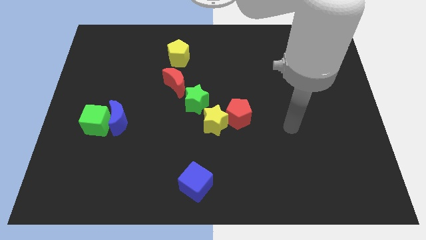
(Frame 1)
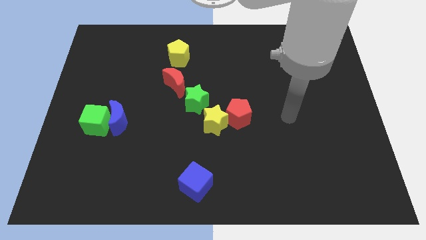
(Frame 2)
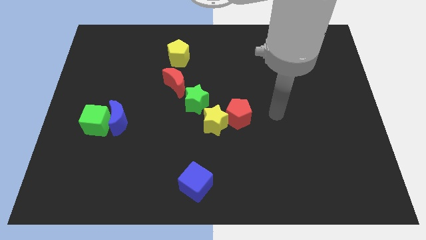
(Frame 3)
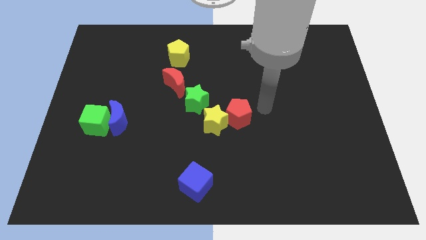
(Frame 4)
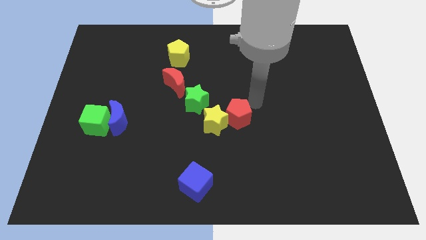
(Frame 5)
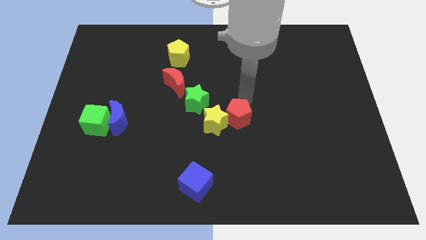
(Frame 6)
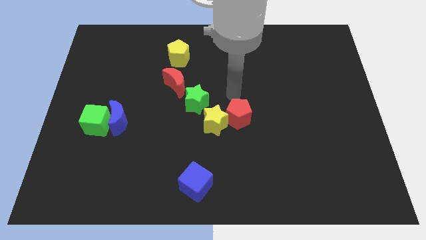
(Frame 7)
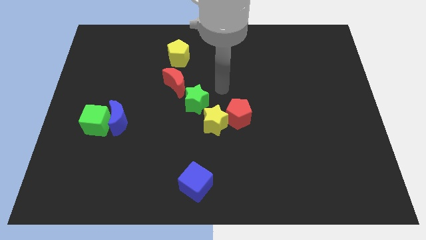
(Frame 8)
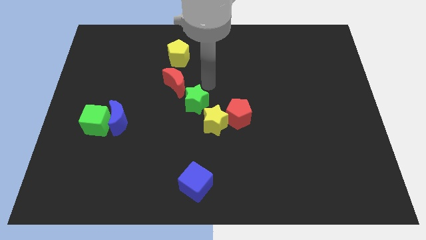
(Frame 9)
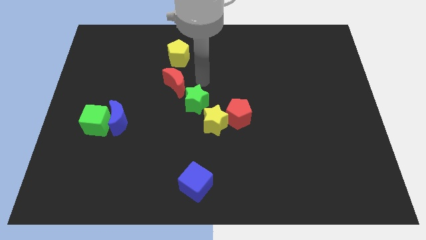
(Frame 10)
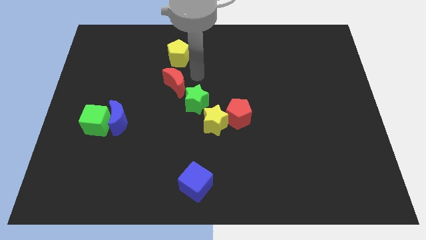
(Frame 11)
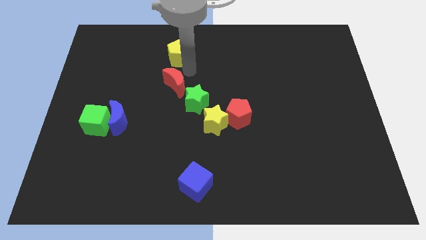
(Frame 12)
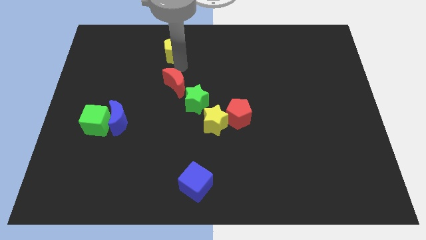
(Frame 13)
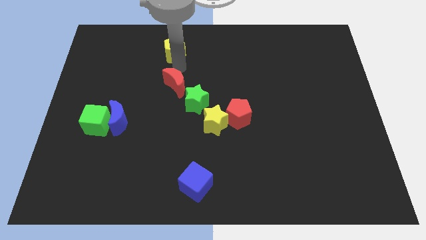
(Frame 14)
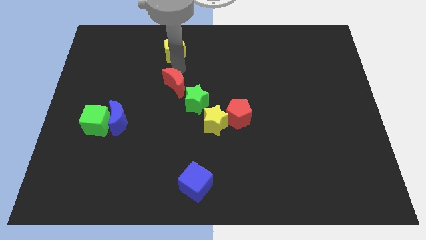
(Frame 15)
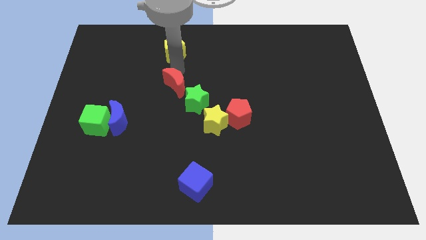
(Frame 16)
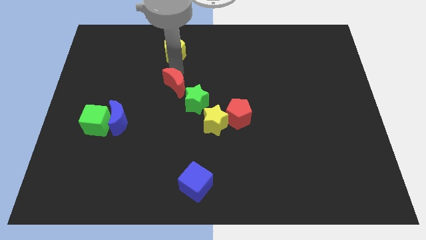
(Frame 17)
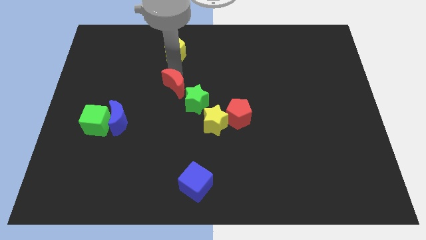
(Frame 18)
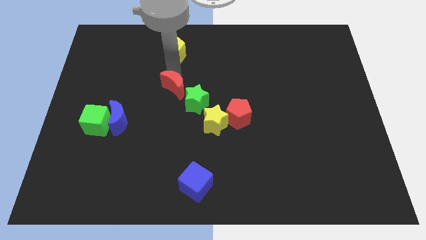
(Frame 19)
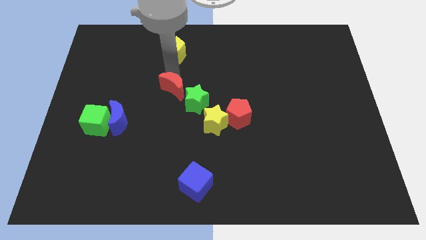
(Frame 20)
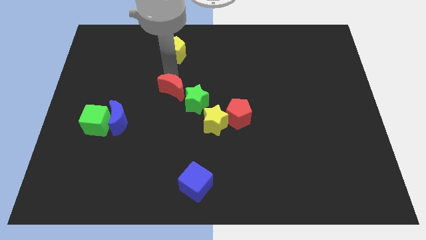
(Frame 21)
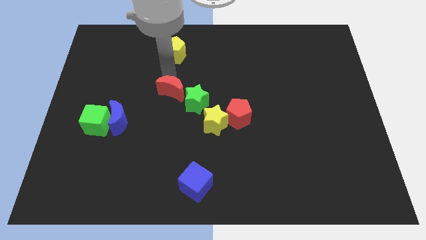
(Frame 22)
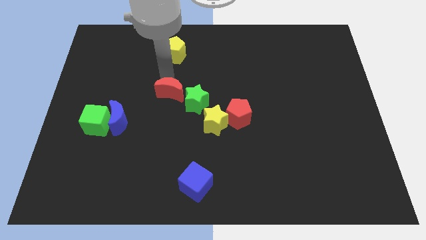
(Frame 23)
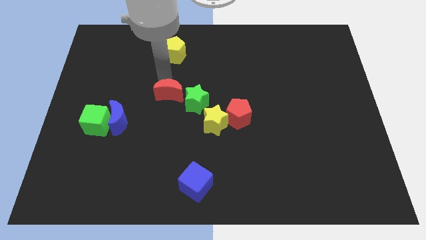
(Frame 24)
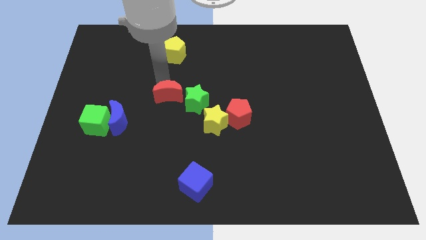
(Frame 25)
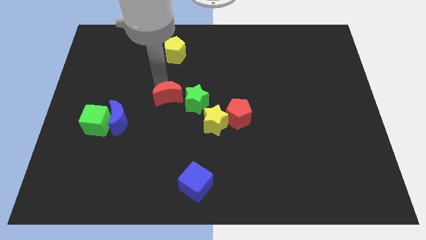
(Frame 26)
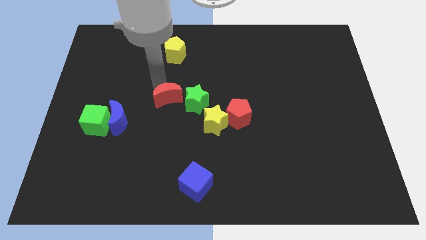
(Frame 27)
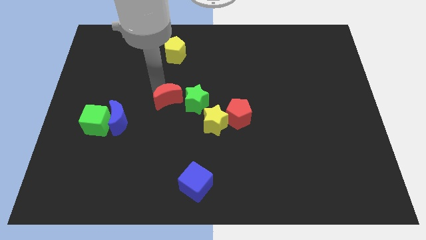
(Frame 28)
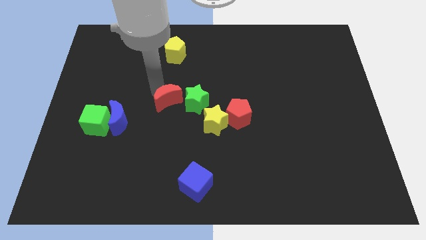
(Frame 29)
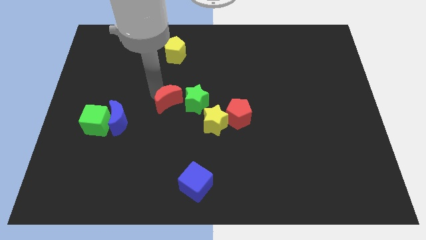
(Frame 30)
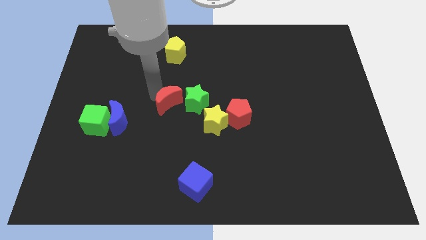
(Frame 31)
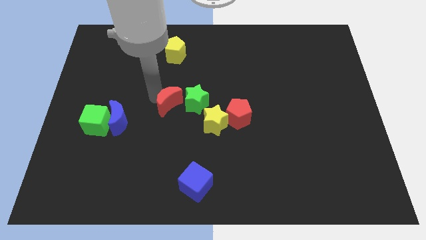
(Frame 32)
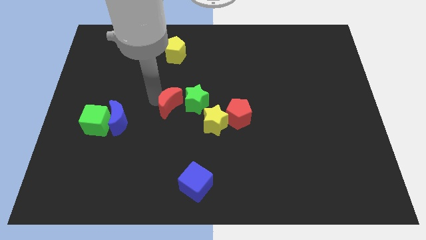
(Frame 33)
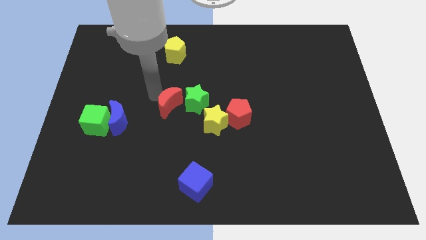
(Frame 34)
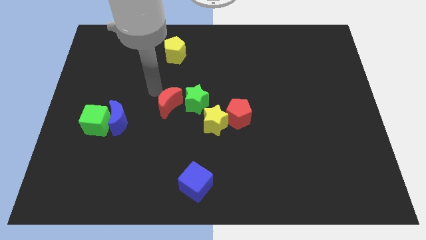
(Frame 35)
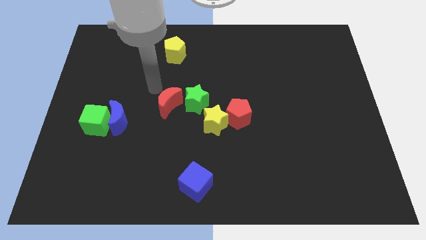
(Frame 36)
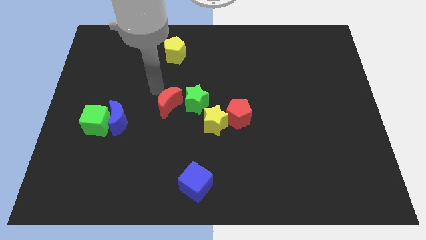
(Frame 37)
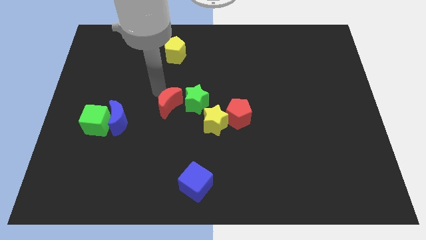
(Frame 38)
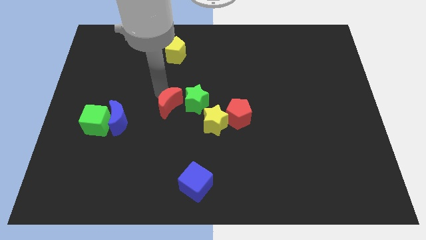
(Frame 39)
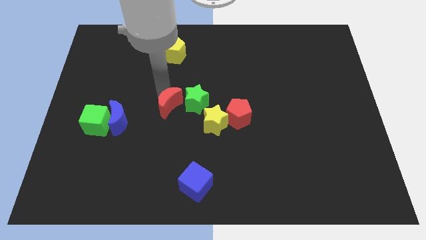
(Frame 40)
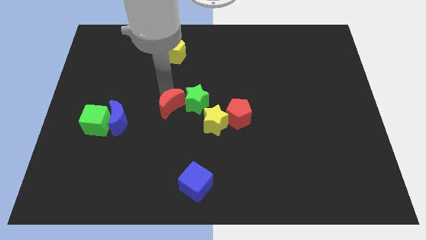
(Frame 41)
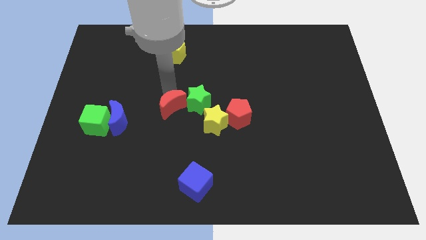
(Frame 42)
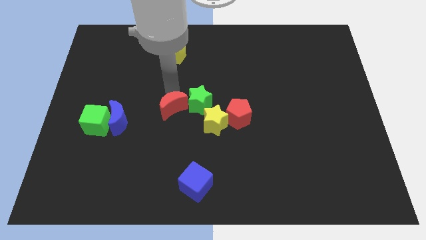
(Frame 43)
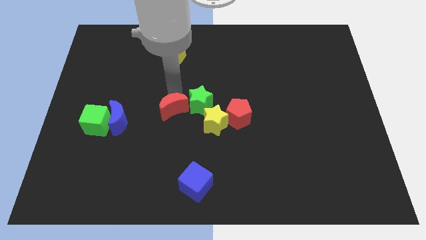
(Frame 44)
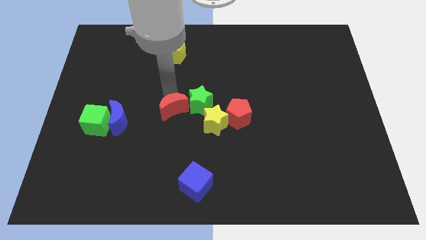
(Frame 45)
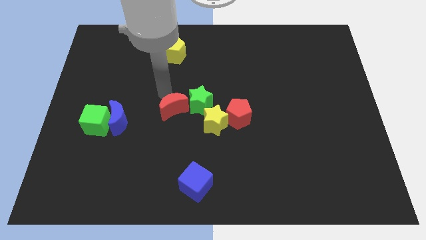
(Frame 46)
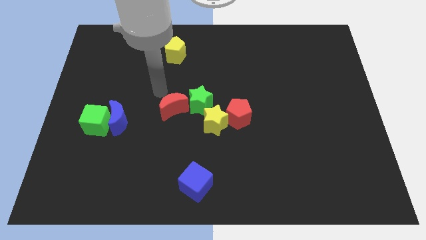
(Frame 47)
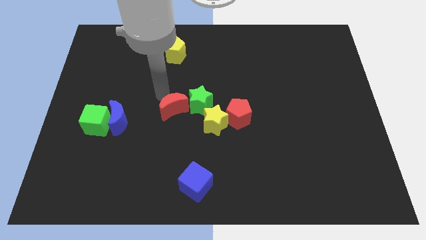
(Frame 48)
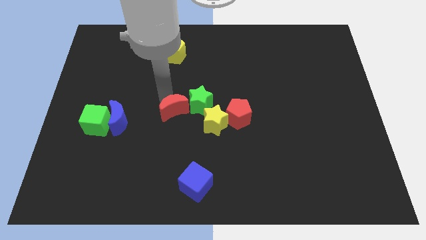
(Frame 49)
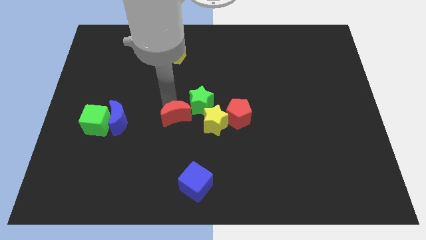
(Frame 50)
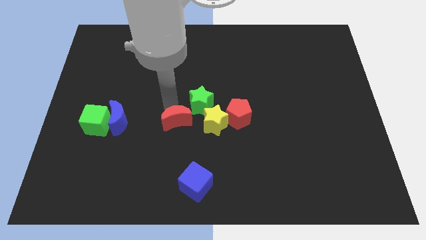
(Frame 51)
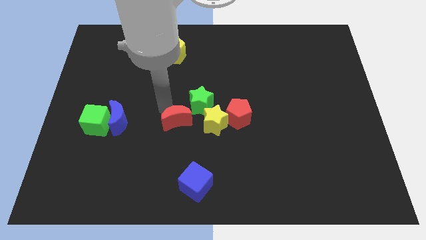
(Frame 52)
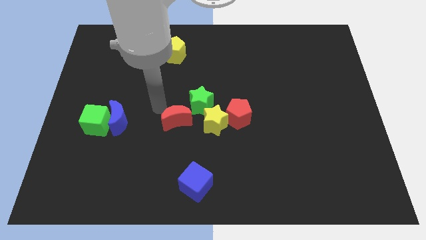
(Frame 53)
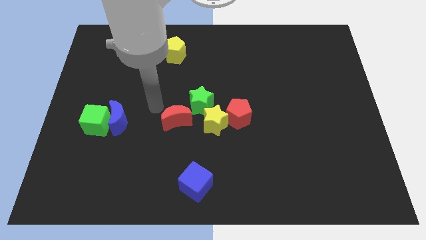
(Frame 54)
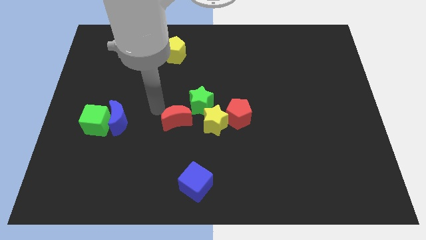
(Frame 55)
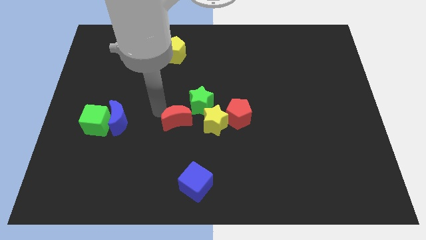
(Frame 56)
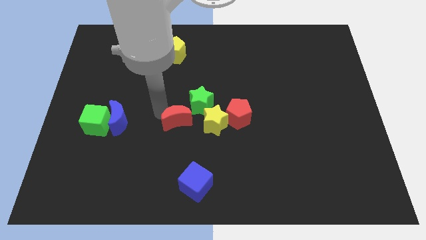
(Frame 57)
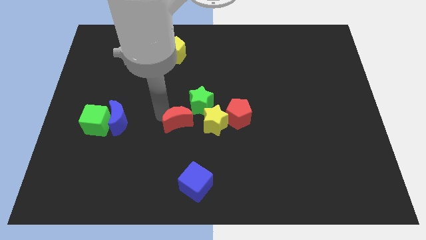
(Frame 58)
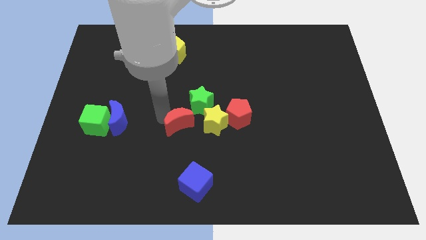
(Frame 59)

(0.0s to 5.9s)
slightly move the red moon down and to the right diagonally

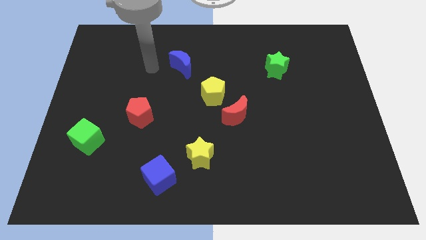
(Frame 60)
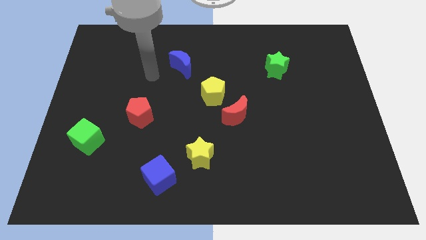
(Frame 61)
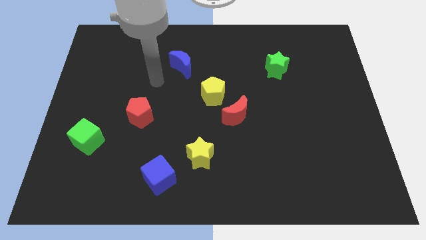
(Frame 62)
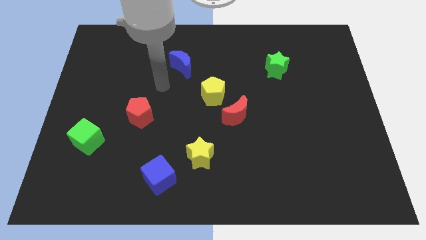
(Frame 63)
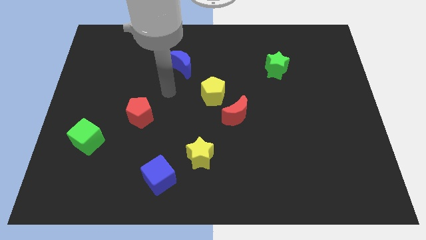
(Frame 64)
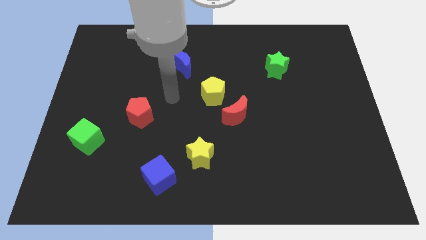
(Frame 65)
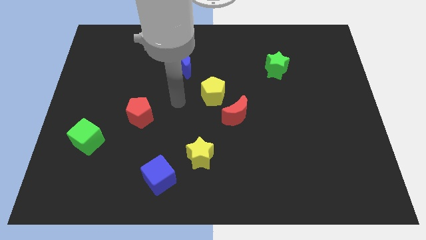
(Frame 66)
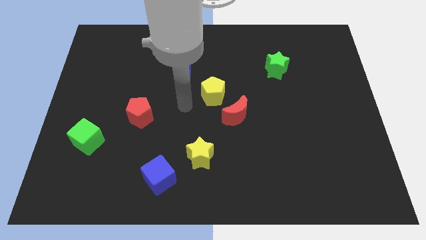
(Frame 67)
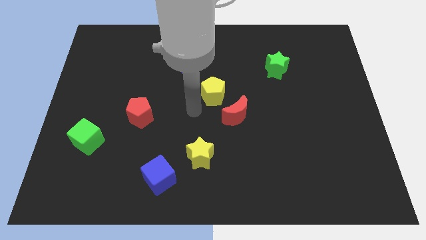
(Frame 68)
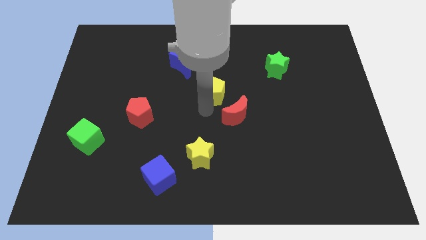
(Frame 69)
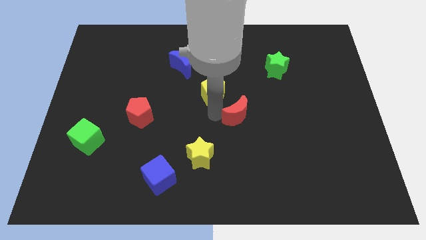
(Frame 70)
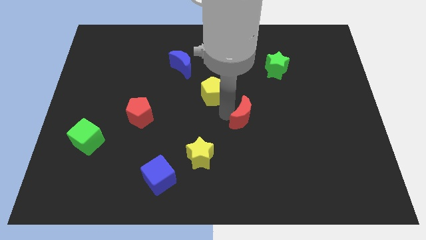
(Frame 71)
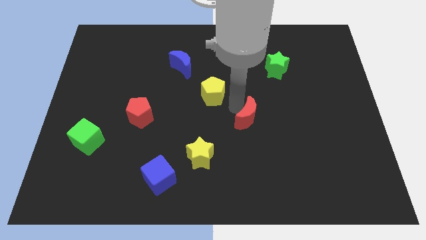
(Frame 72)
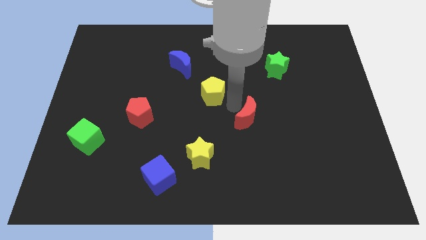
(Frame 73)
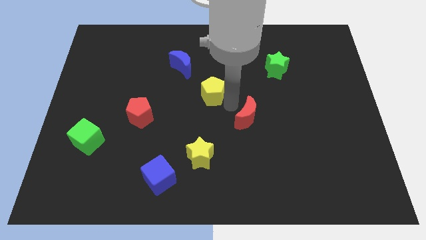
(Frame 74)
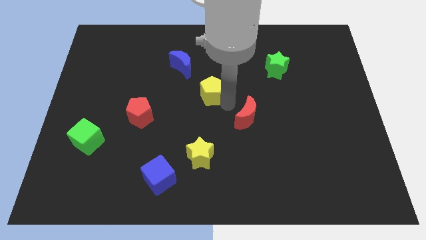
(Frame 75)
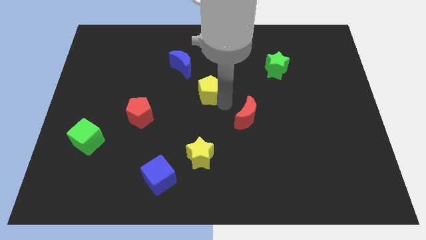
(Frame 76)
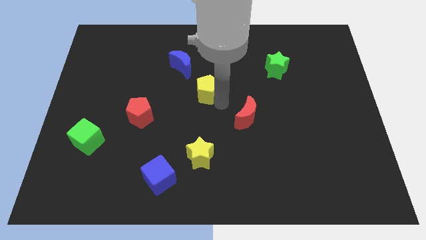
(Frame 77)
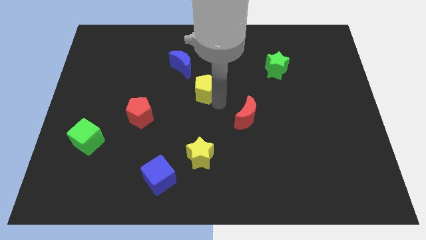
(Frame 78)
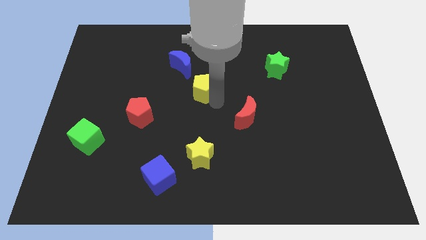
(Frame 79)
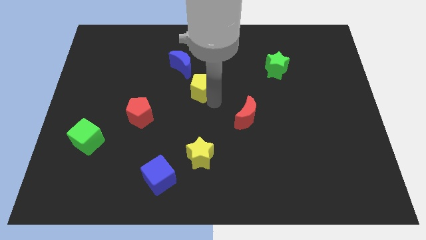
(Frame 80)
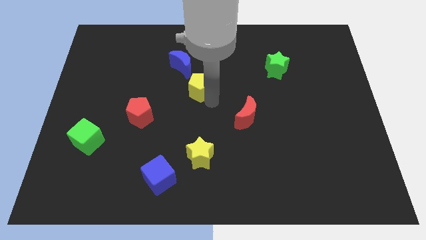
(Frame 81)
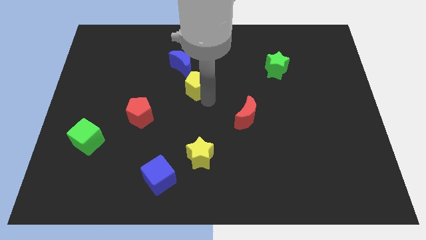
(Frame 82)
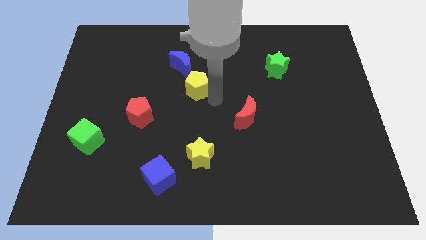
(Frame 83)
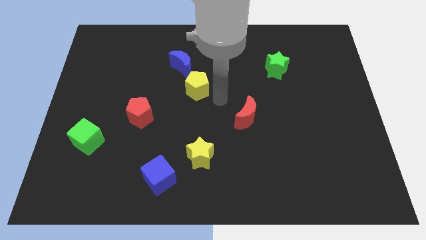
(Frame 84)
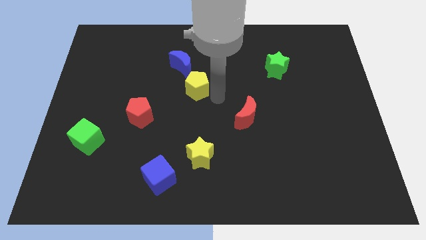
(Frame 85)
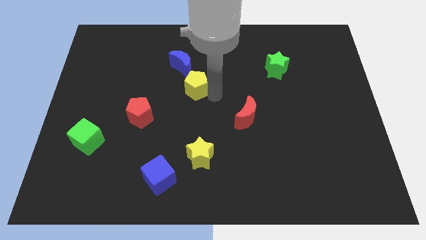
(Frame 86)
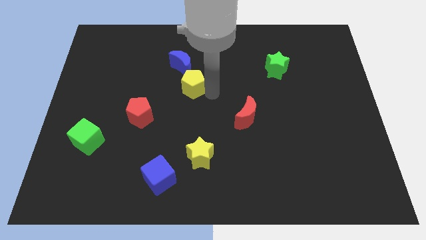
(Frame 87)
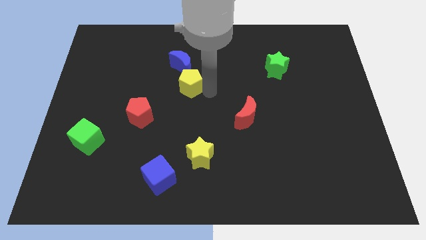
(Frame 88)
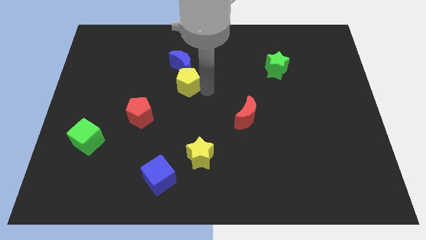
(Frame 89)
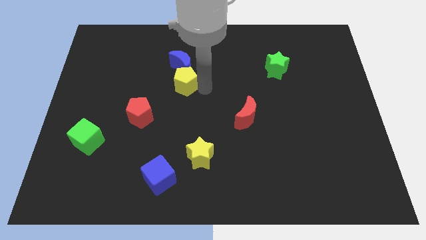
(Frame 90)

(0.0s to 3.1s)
push the yellow pentagon a little upwards and to the left
